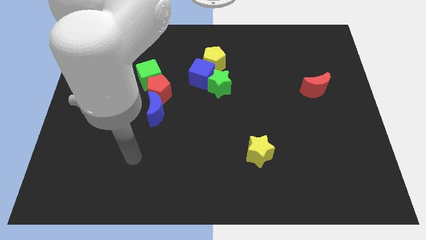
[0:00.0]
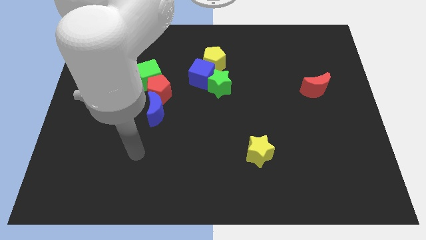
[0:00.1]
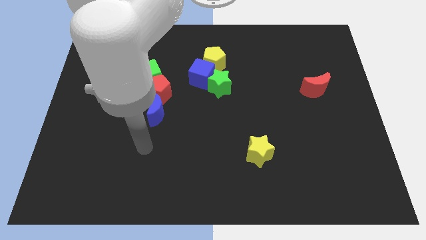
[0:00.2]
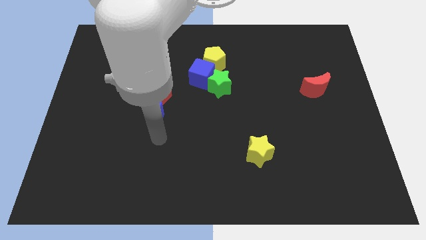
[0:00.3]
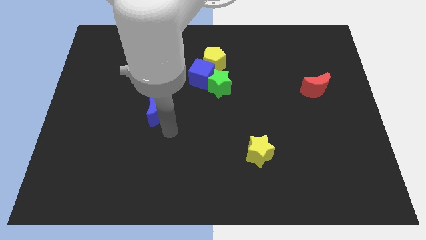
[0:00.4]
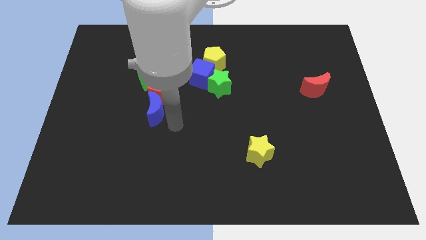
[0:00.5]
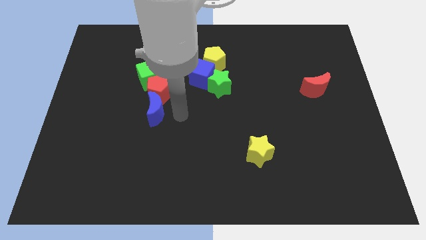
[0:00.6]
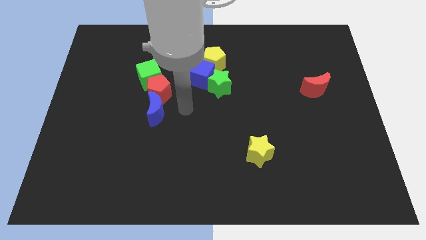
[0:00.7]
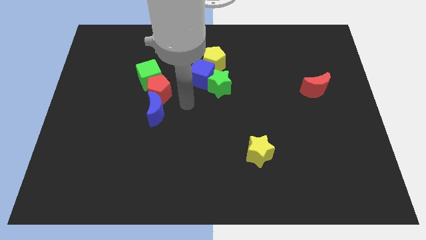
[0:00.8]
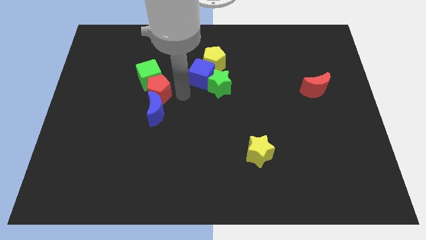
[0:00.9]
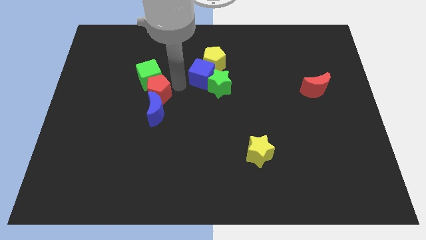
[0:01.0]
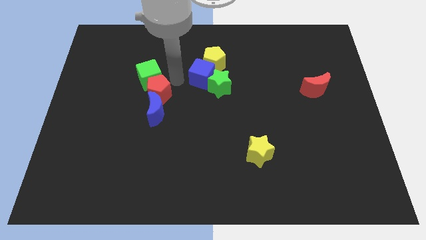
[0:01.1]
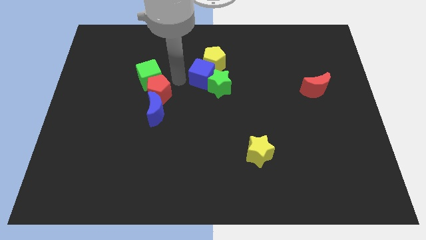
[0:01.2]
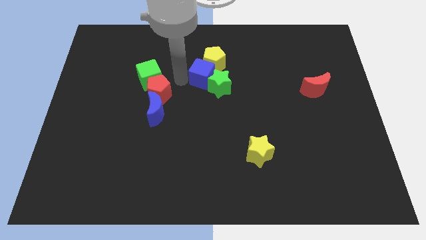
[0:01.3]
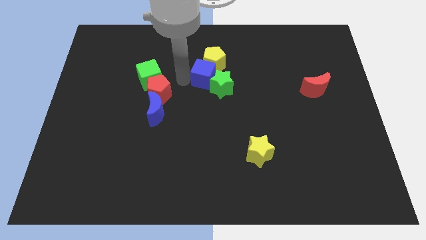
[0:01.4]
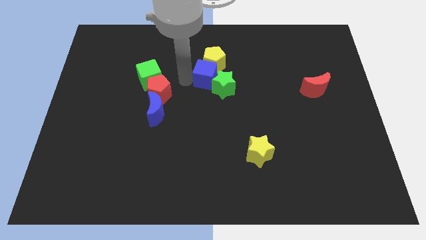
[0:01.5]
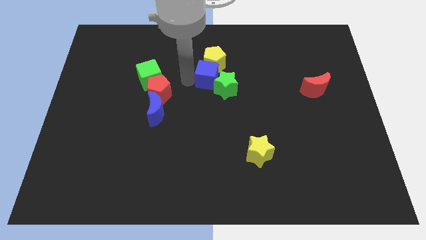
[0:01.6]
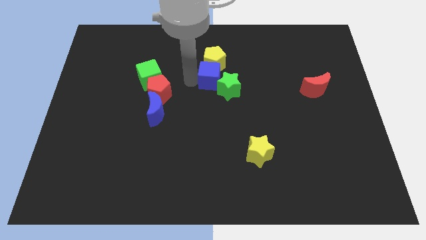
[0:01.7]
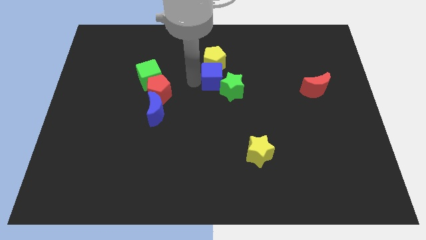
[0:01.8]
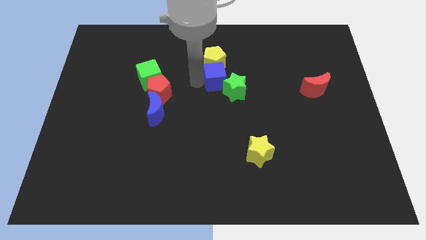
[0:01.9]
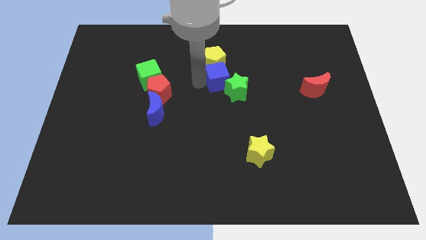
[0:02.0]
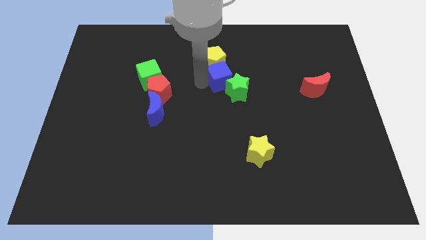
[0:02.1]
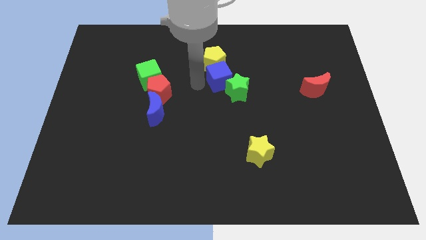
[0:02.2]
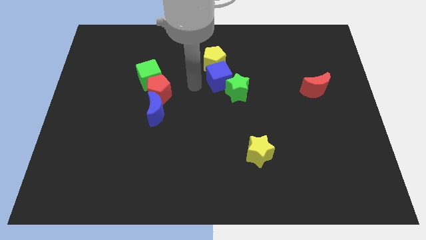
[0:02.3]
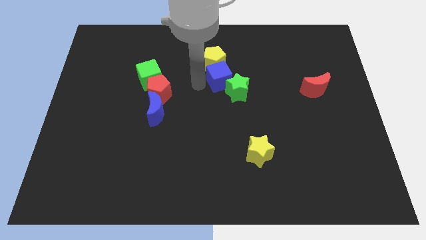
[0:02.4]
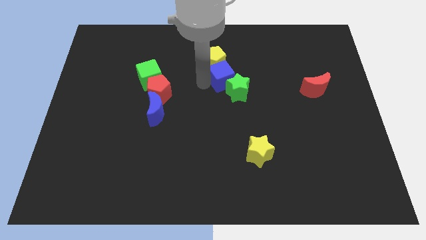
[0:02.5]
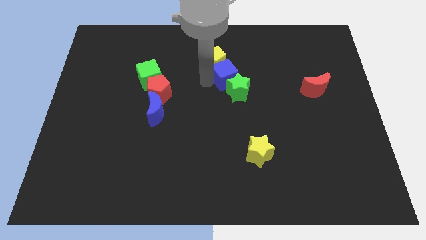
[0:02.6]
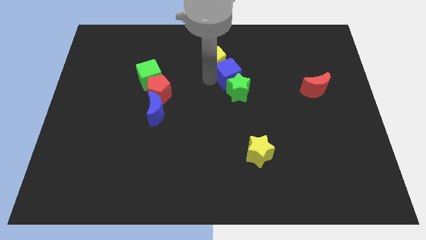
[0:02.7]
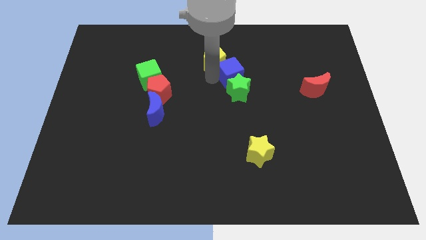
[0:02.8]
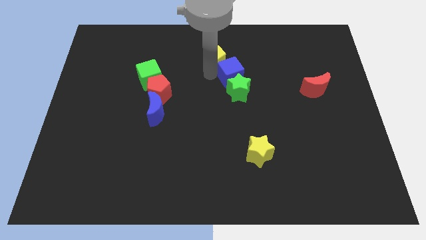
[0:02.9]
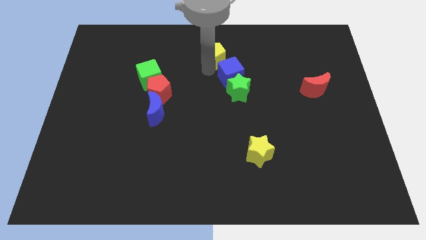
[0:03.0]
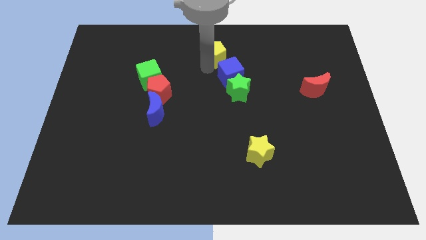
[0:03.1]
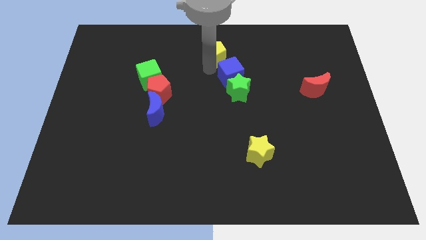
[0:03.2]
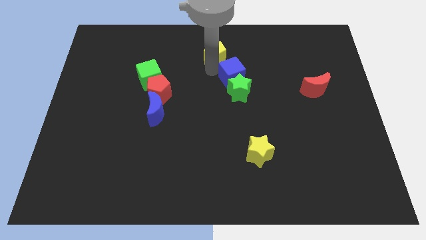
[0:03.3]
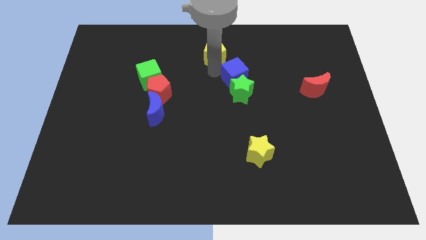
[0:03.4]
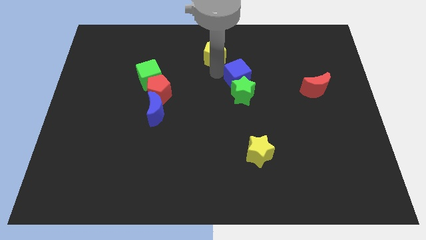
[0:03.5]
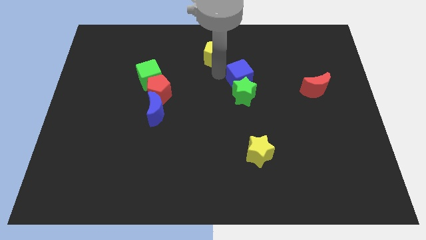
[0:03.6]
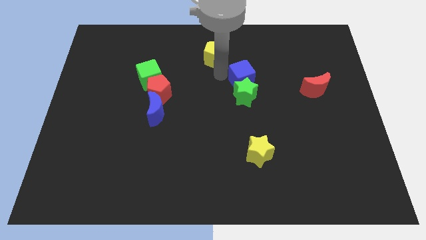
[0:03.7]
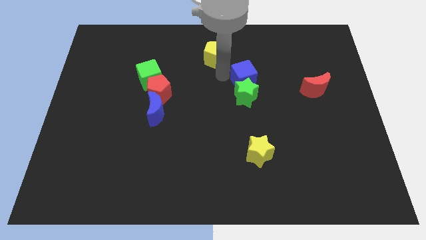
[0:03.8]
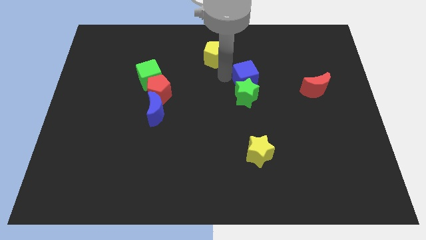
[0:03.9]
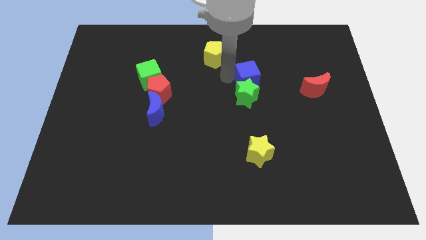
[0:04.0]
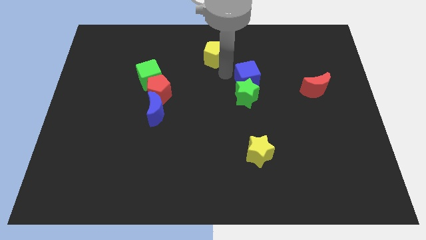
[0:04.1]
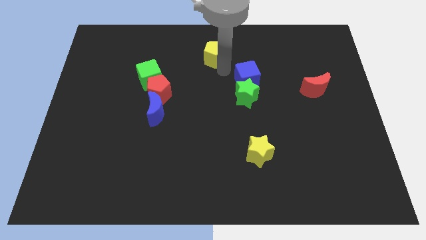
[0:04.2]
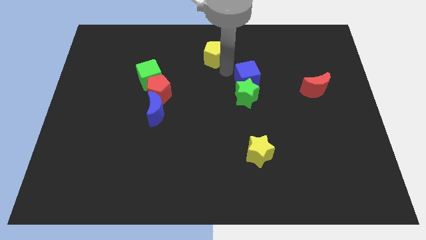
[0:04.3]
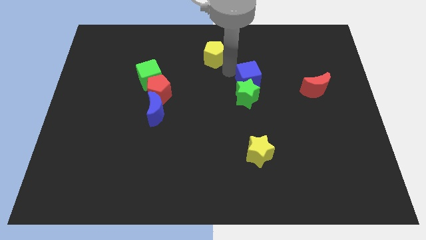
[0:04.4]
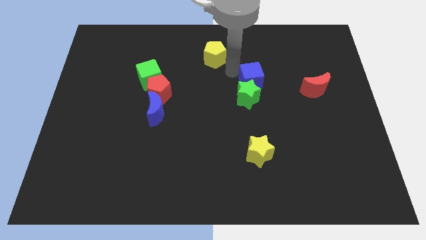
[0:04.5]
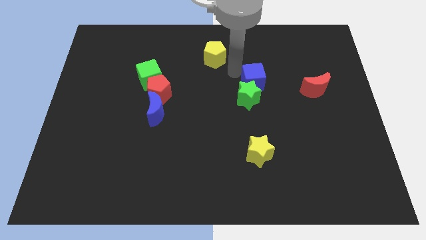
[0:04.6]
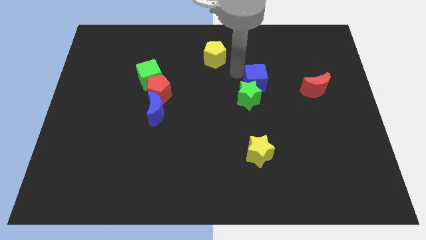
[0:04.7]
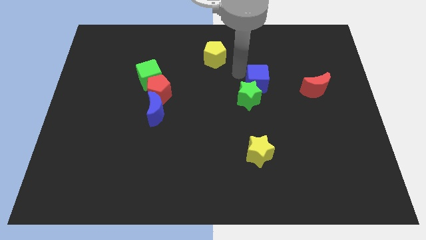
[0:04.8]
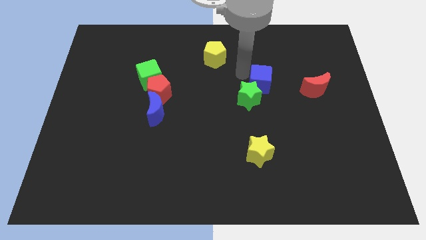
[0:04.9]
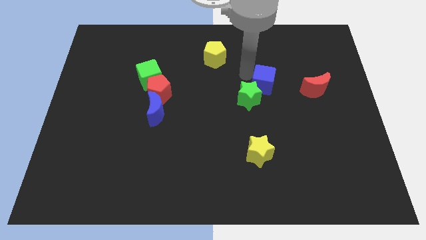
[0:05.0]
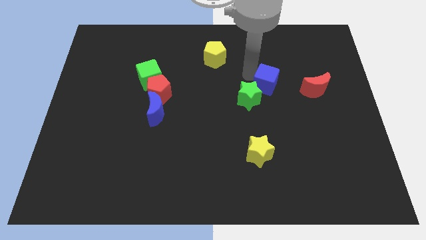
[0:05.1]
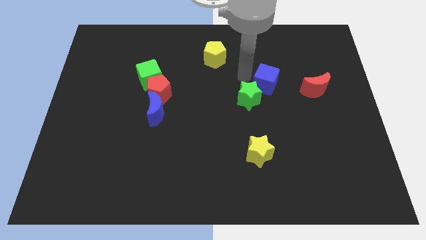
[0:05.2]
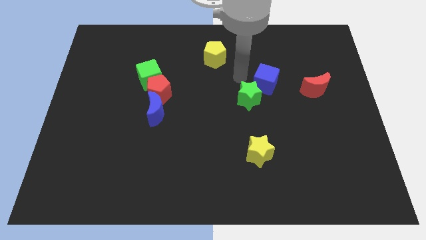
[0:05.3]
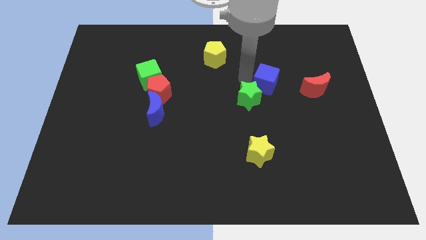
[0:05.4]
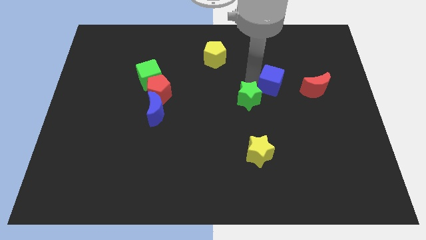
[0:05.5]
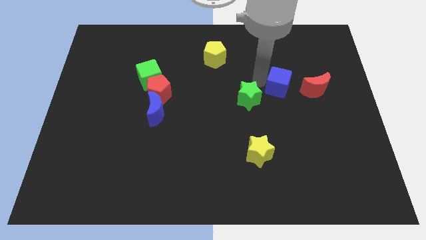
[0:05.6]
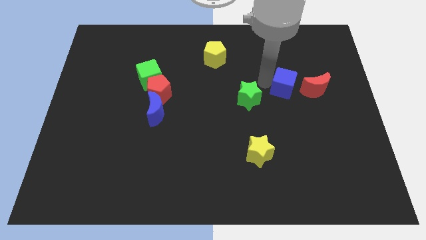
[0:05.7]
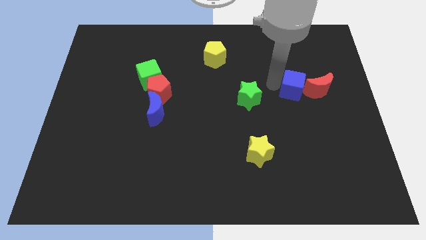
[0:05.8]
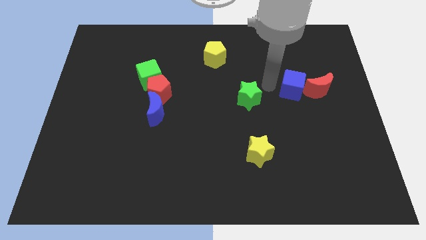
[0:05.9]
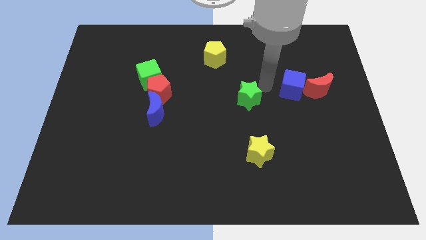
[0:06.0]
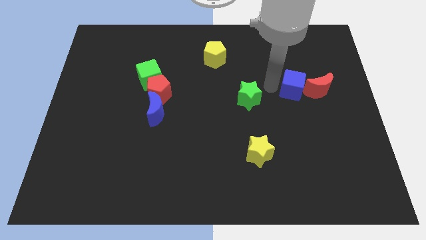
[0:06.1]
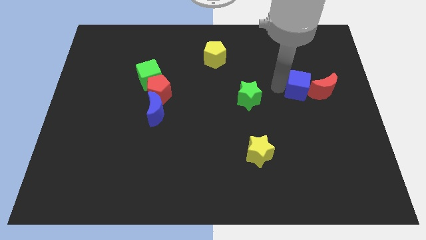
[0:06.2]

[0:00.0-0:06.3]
slide the blue cube close to the red moon
